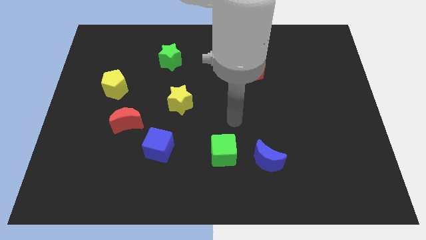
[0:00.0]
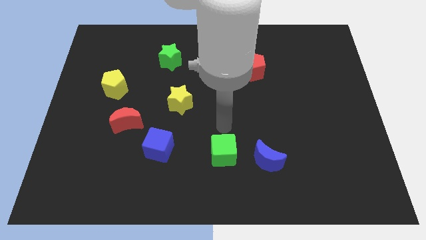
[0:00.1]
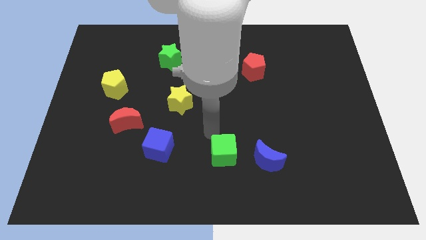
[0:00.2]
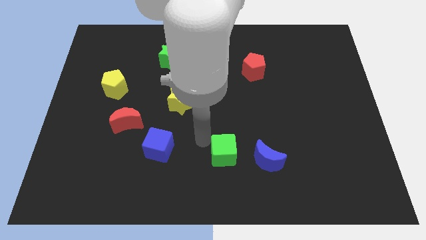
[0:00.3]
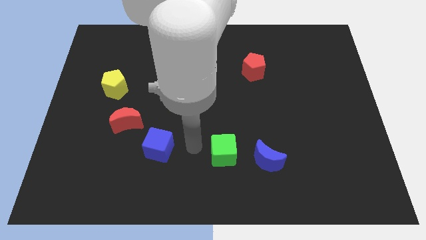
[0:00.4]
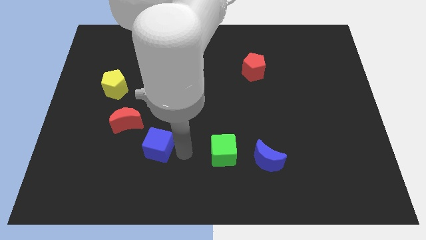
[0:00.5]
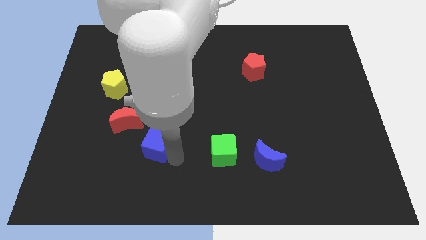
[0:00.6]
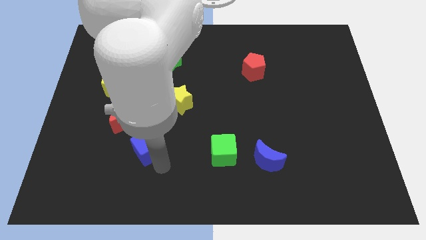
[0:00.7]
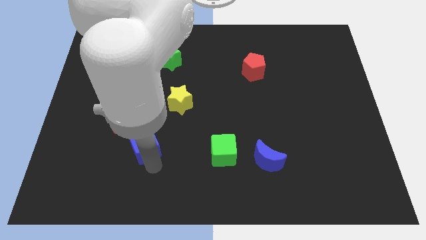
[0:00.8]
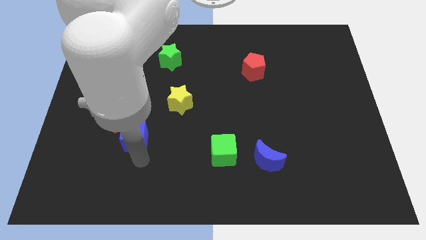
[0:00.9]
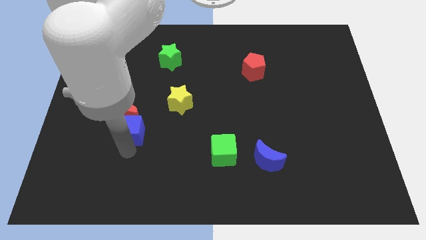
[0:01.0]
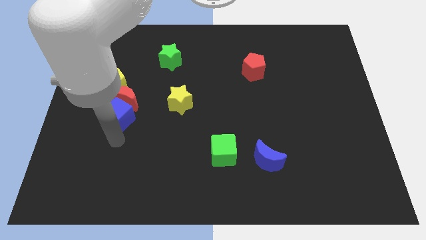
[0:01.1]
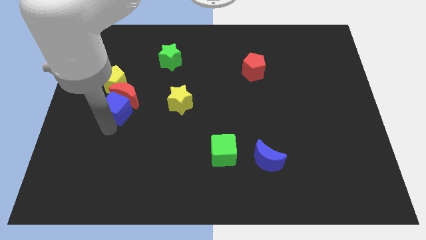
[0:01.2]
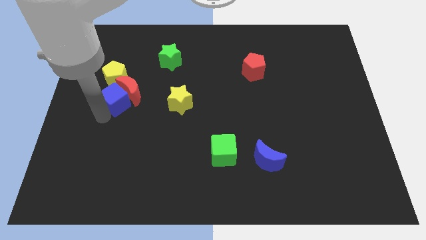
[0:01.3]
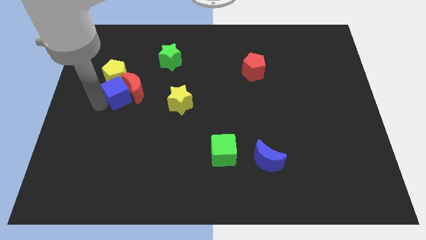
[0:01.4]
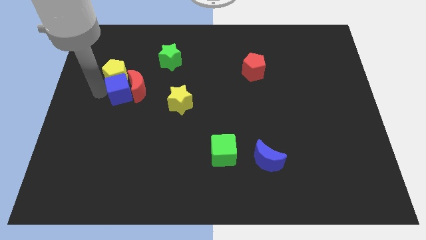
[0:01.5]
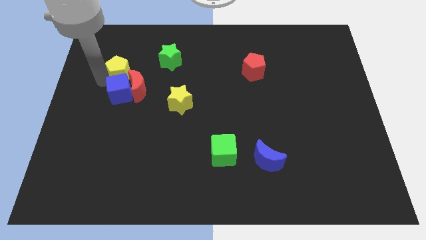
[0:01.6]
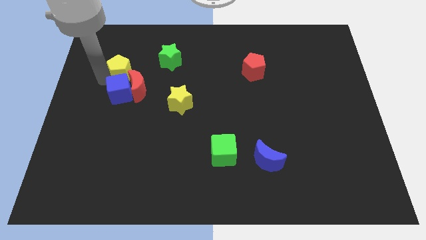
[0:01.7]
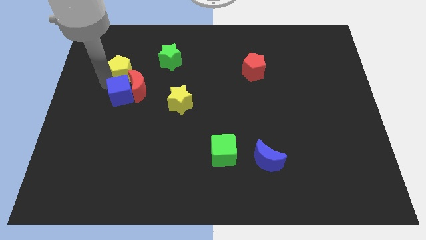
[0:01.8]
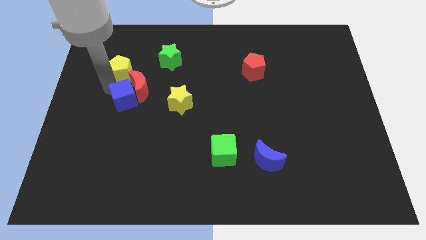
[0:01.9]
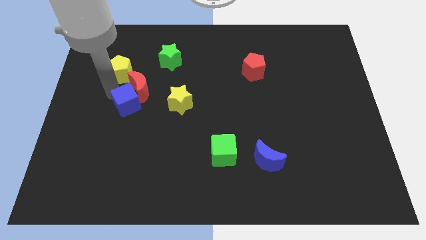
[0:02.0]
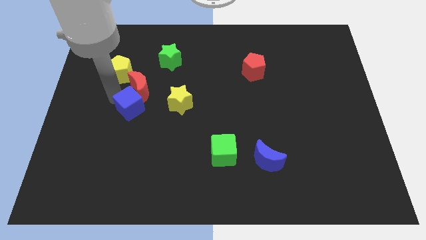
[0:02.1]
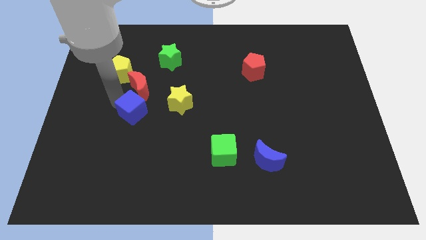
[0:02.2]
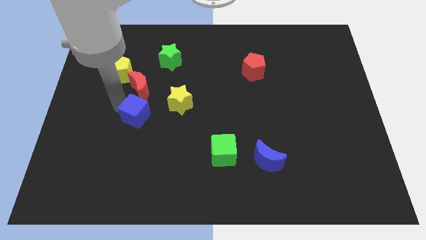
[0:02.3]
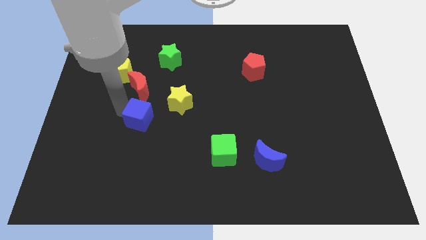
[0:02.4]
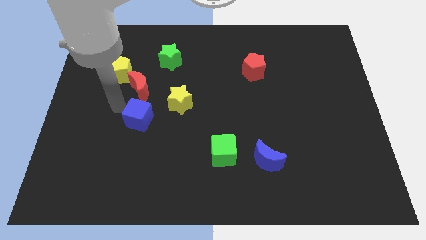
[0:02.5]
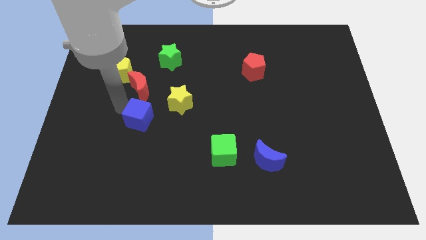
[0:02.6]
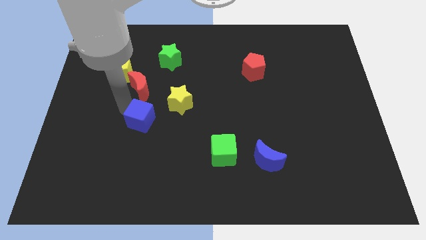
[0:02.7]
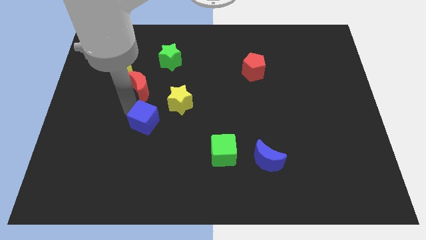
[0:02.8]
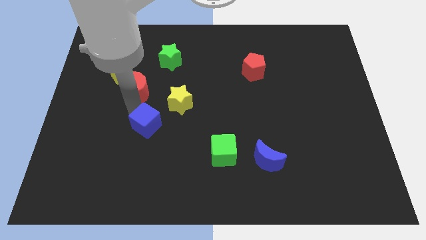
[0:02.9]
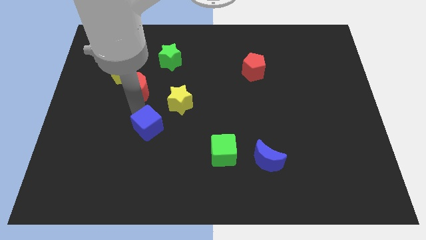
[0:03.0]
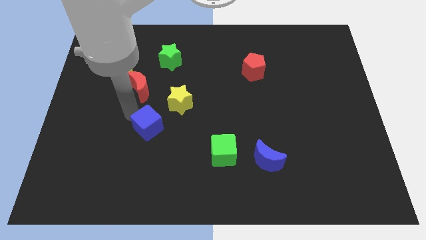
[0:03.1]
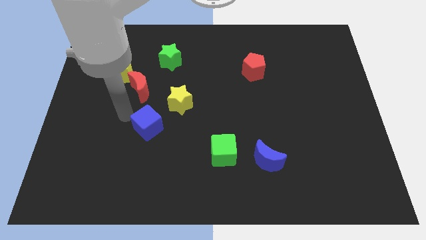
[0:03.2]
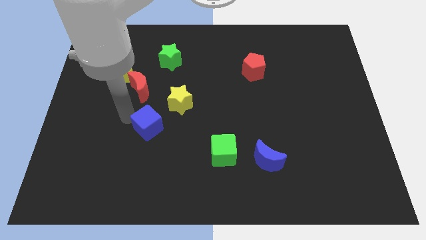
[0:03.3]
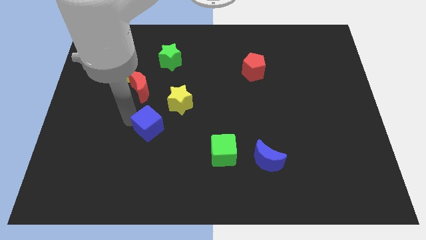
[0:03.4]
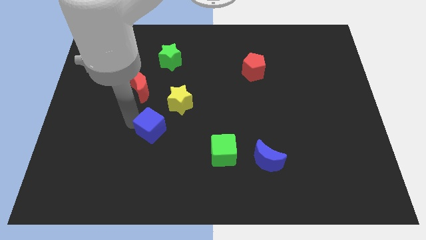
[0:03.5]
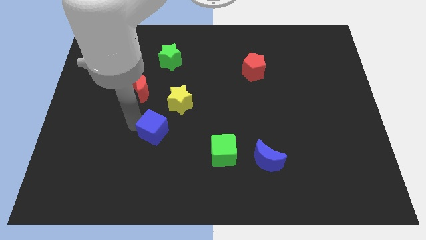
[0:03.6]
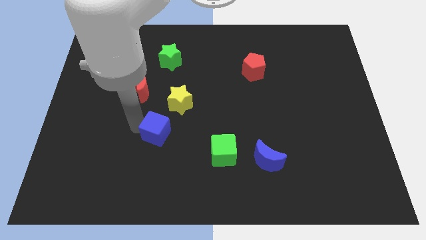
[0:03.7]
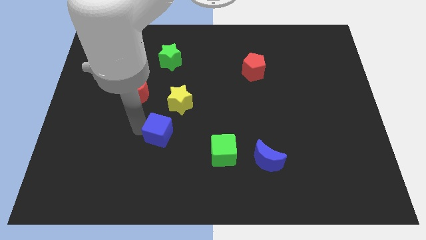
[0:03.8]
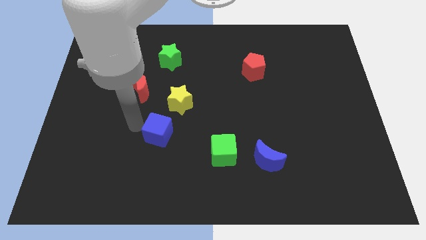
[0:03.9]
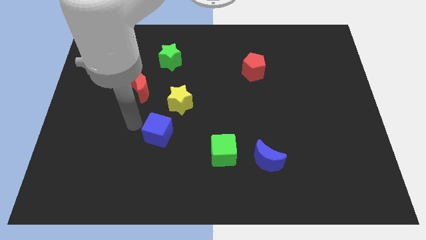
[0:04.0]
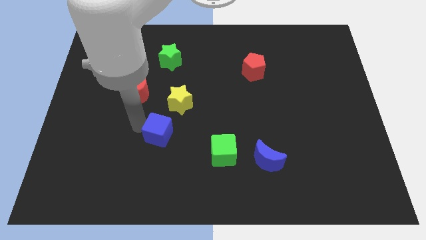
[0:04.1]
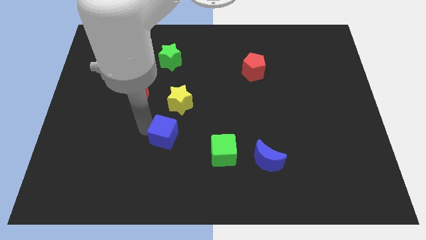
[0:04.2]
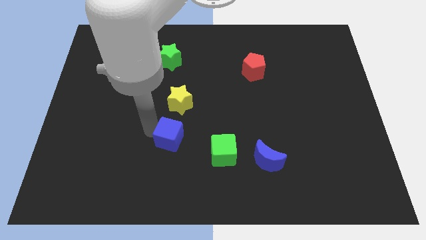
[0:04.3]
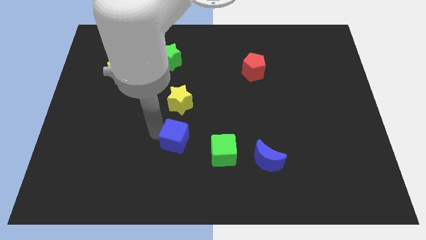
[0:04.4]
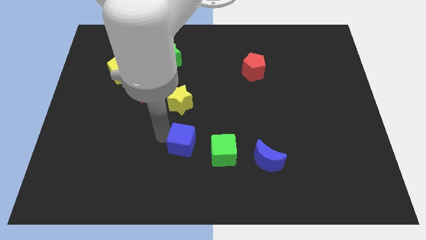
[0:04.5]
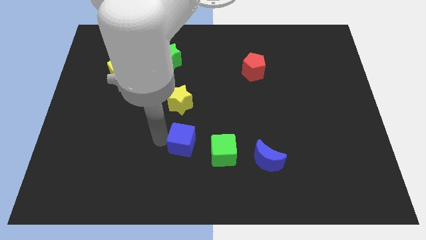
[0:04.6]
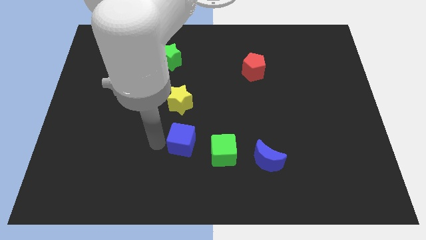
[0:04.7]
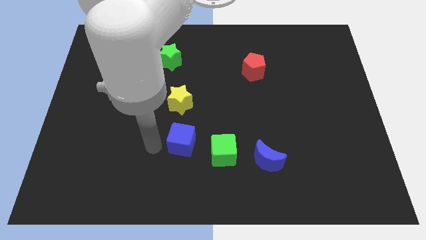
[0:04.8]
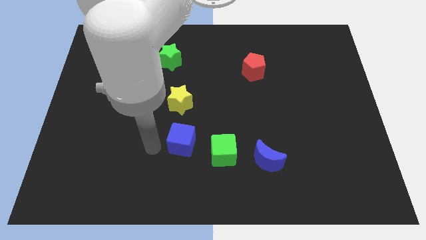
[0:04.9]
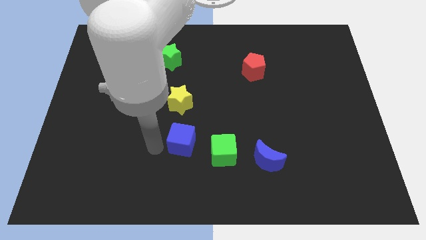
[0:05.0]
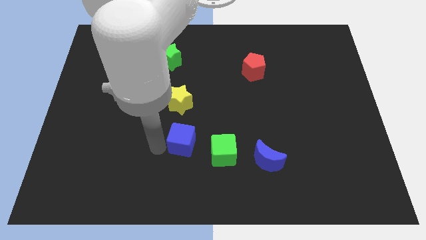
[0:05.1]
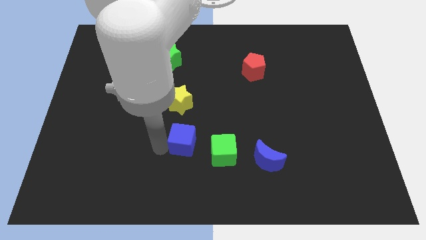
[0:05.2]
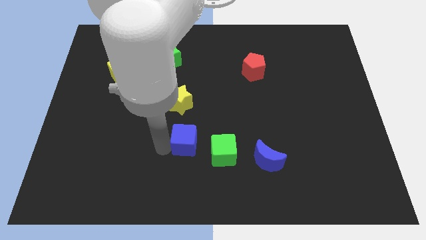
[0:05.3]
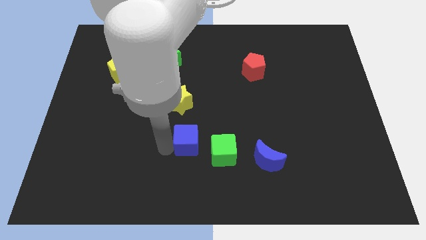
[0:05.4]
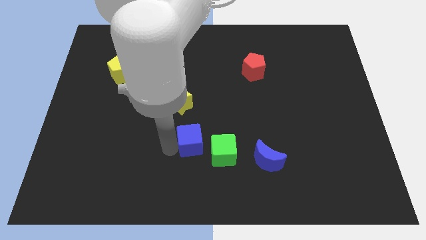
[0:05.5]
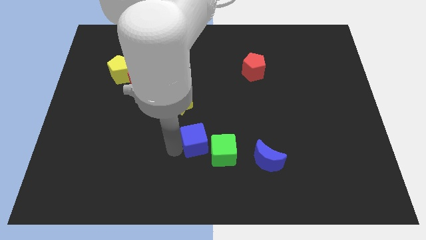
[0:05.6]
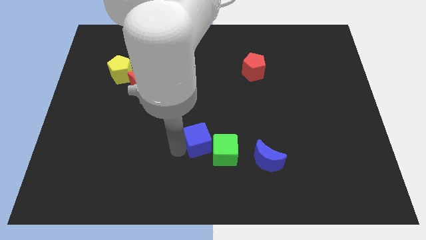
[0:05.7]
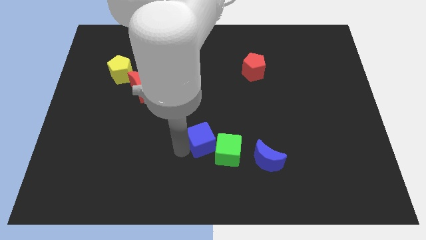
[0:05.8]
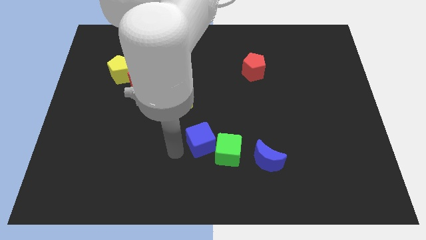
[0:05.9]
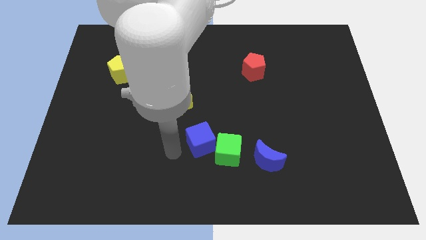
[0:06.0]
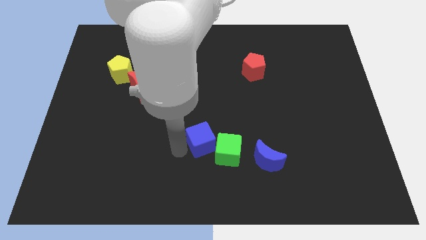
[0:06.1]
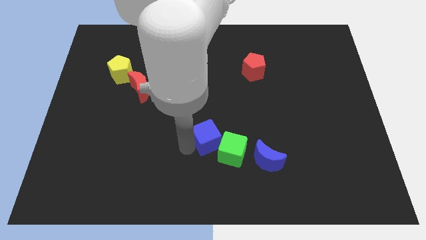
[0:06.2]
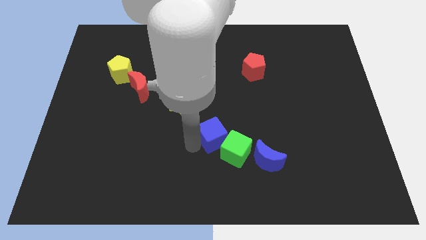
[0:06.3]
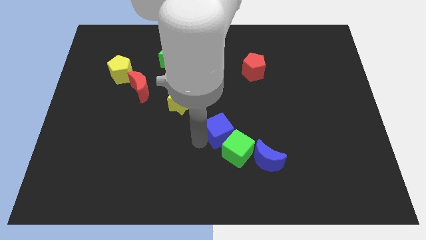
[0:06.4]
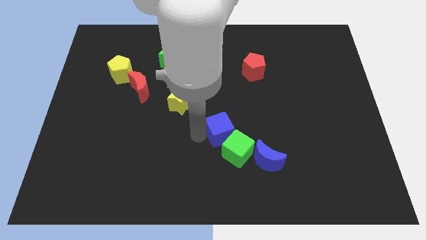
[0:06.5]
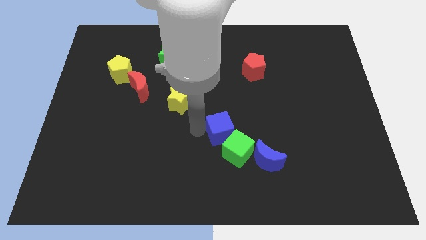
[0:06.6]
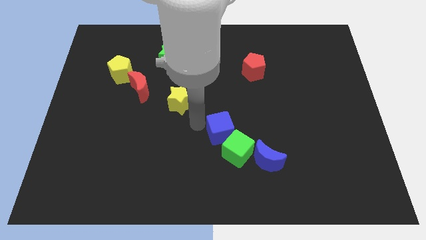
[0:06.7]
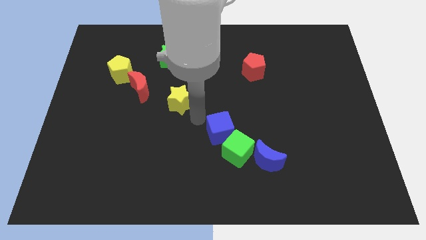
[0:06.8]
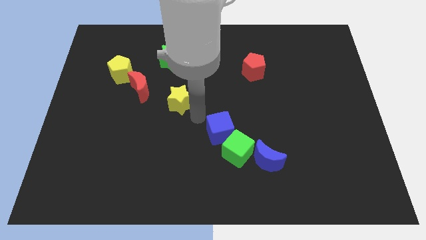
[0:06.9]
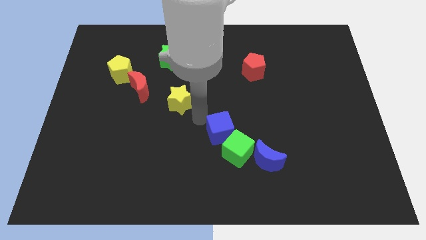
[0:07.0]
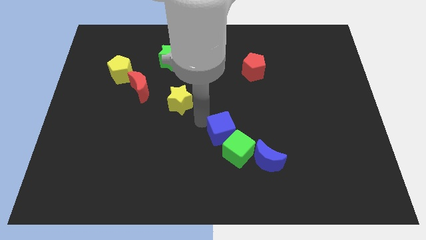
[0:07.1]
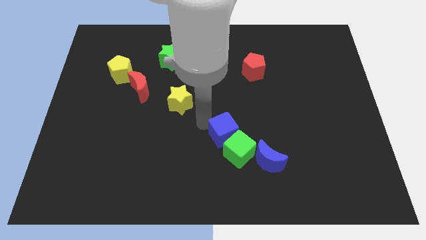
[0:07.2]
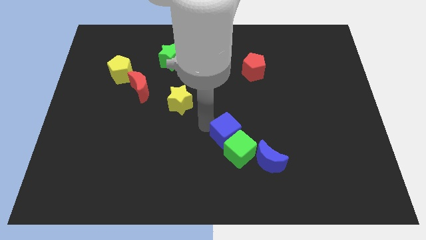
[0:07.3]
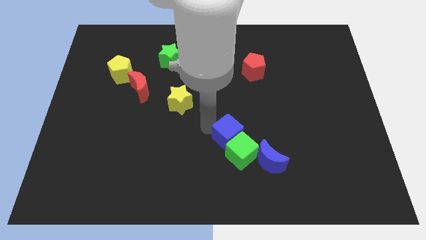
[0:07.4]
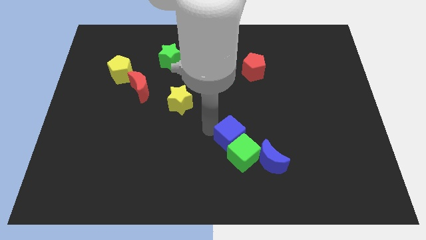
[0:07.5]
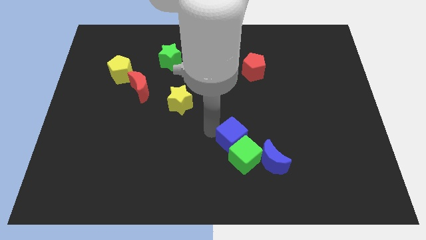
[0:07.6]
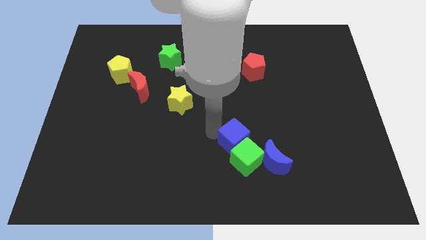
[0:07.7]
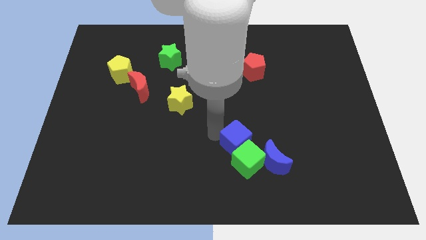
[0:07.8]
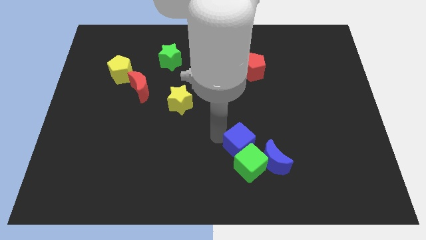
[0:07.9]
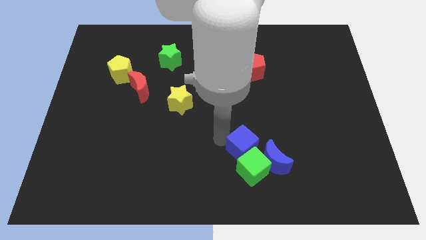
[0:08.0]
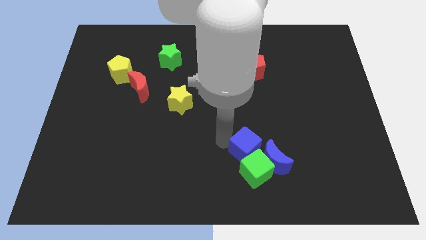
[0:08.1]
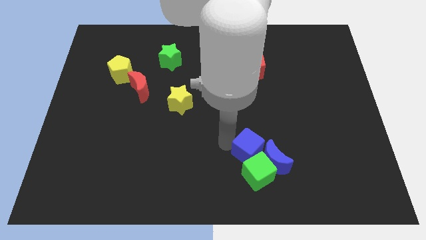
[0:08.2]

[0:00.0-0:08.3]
push the blue cube towards the blue moon
